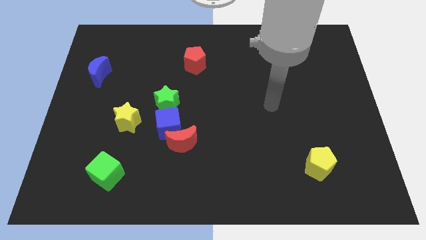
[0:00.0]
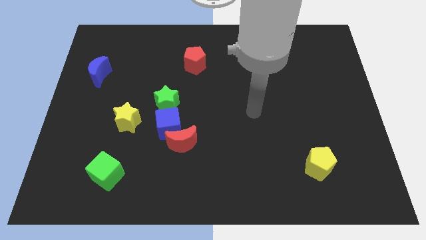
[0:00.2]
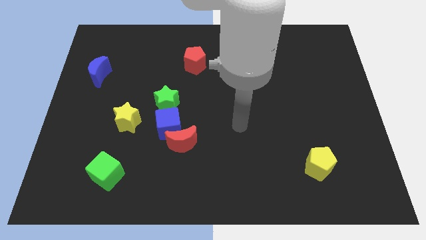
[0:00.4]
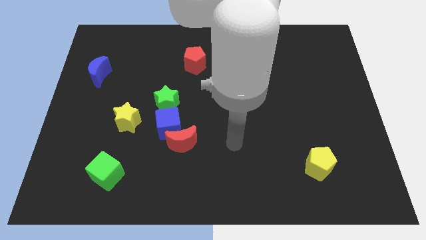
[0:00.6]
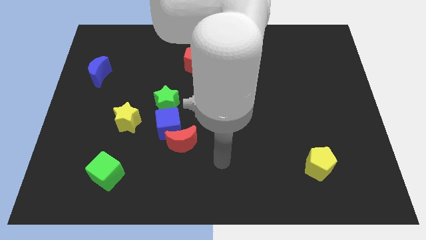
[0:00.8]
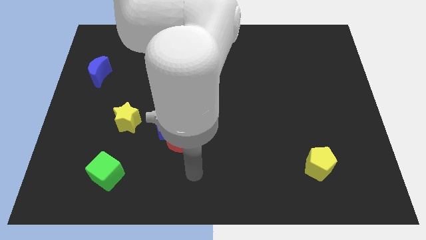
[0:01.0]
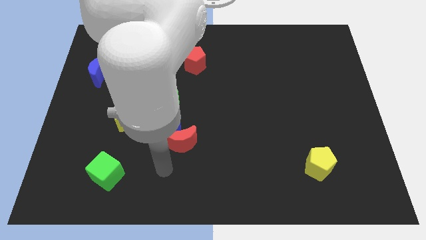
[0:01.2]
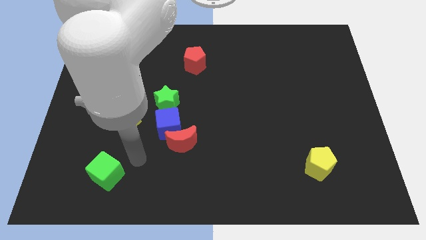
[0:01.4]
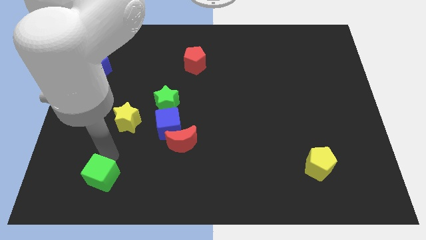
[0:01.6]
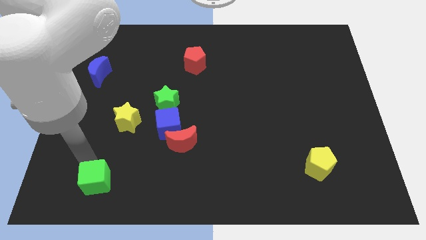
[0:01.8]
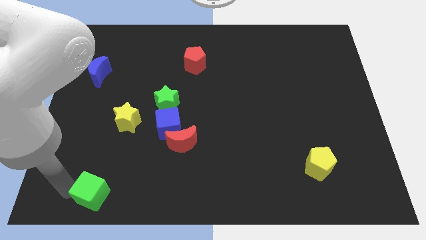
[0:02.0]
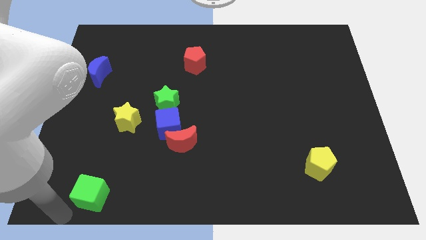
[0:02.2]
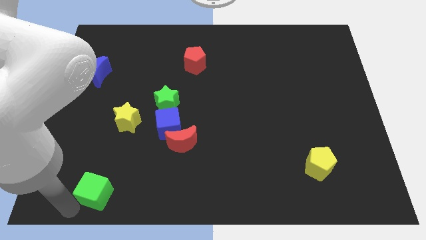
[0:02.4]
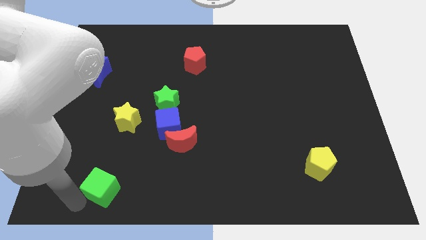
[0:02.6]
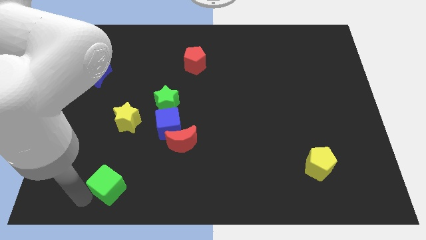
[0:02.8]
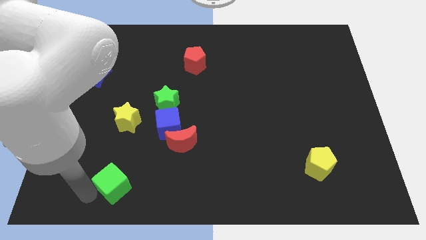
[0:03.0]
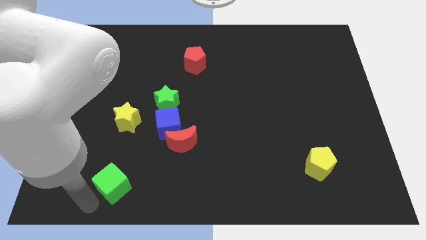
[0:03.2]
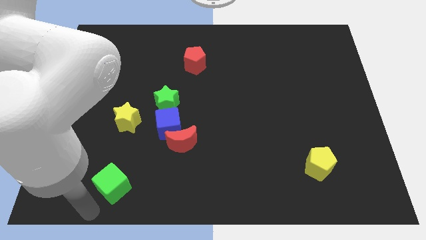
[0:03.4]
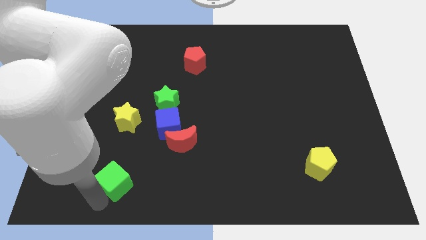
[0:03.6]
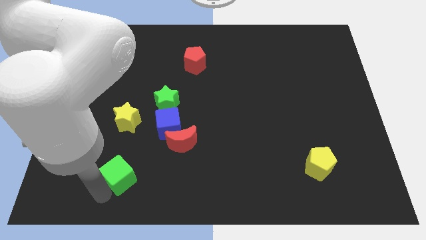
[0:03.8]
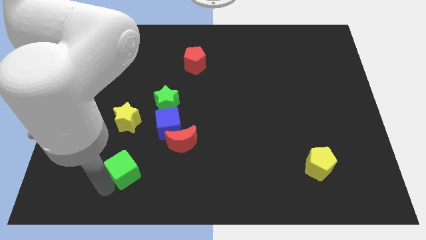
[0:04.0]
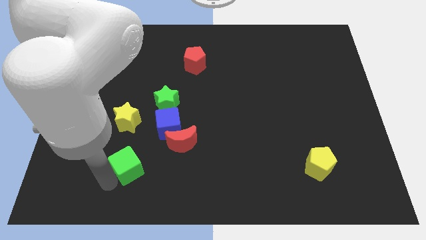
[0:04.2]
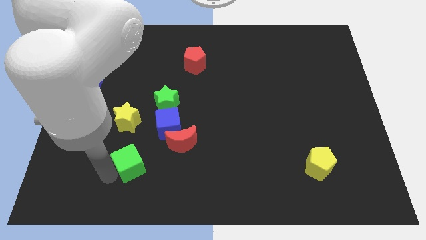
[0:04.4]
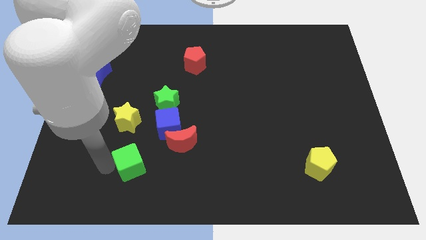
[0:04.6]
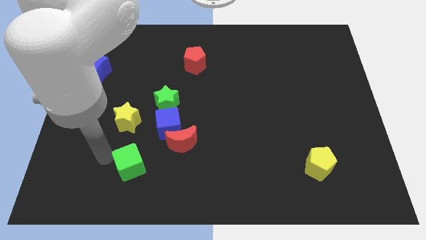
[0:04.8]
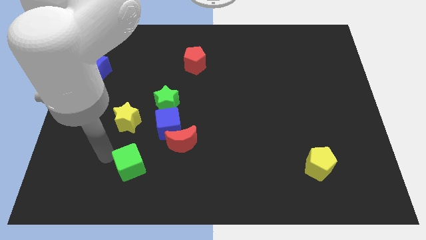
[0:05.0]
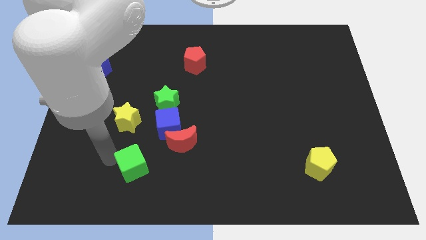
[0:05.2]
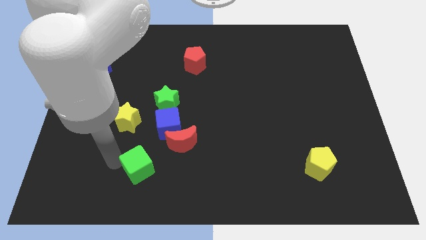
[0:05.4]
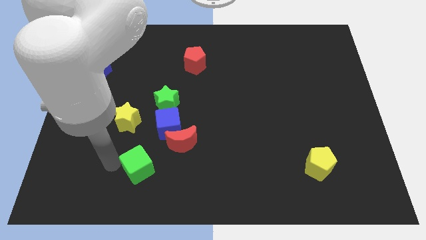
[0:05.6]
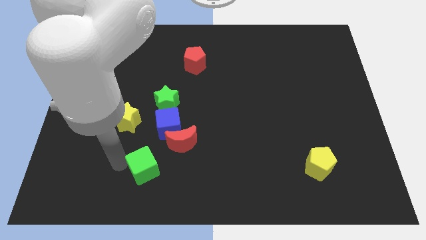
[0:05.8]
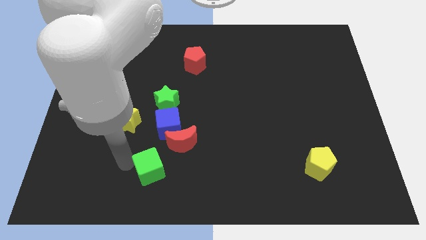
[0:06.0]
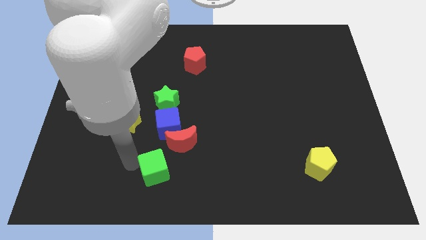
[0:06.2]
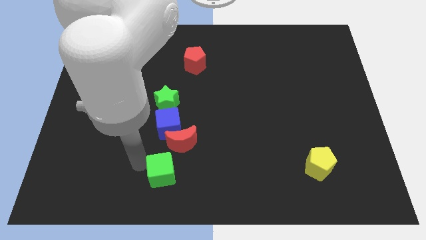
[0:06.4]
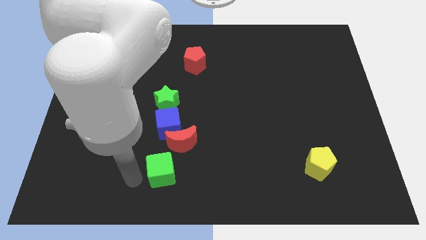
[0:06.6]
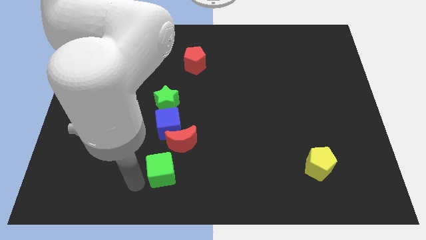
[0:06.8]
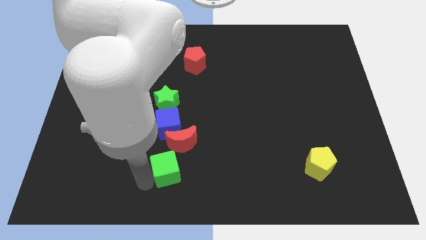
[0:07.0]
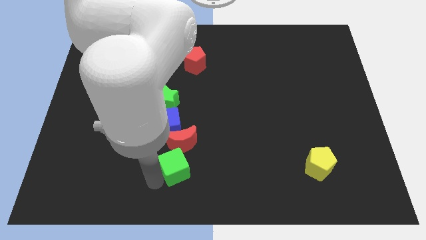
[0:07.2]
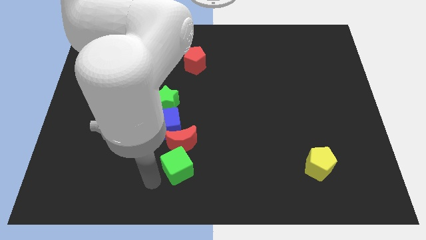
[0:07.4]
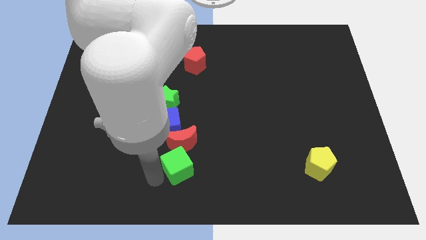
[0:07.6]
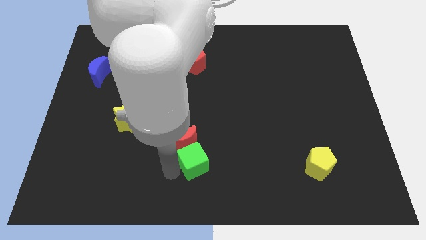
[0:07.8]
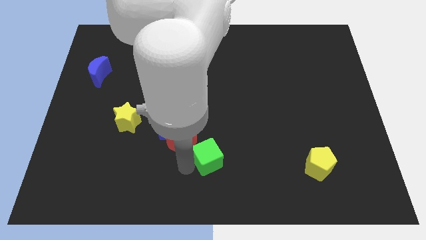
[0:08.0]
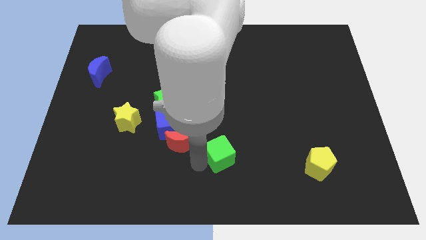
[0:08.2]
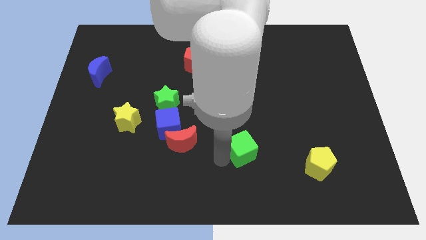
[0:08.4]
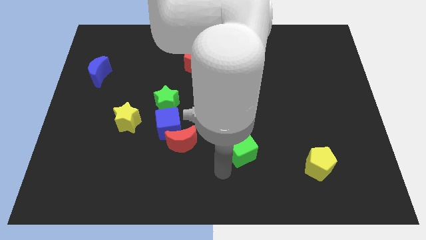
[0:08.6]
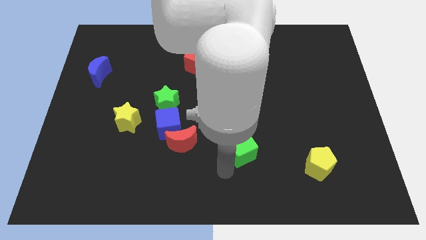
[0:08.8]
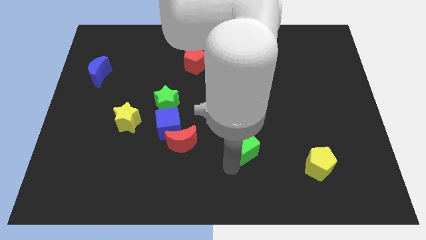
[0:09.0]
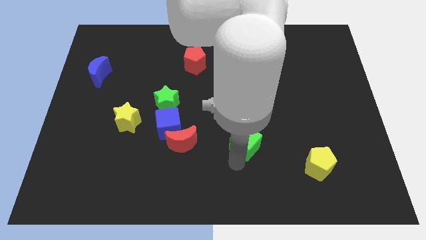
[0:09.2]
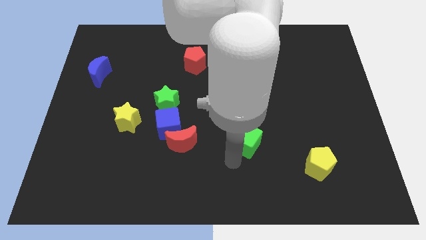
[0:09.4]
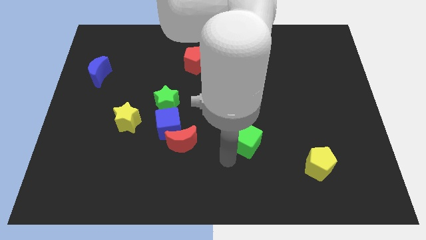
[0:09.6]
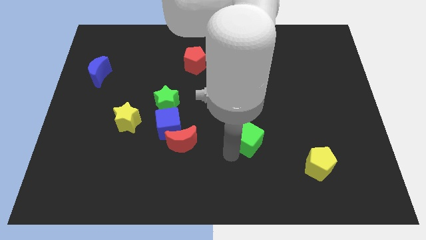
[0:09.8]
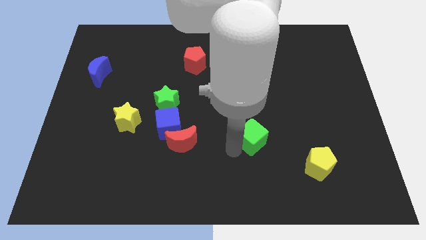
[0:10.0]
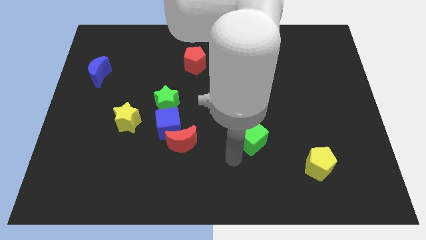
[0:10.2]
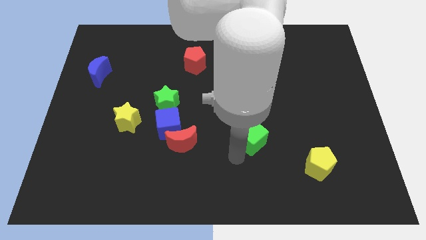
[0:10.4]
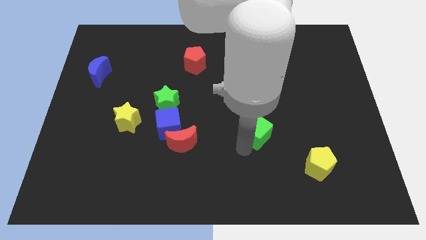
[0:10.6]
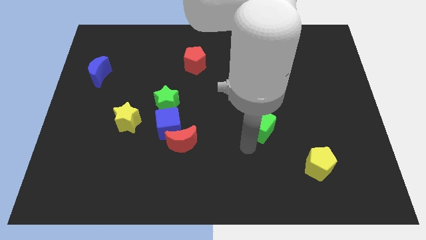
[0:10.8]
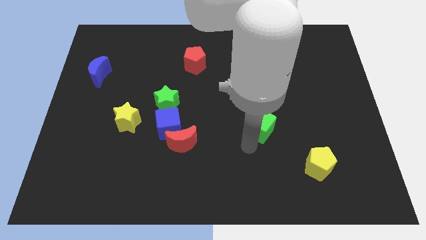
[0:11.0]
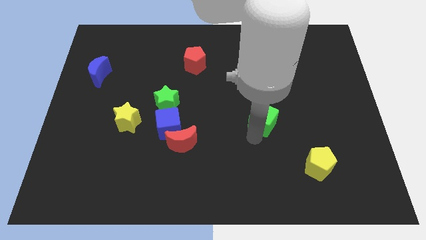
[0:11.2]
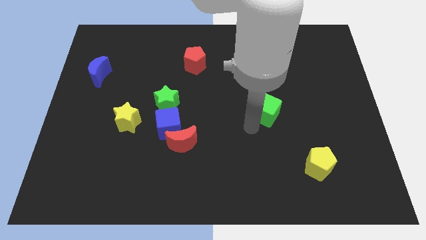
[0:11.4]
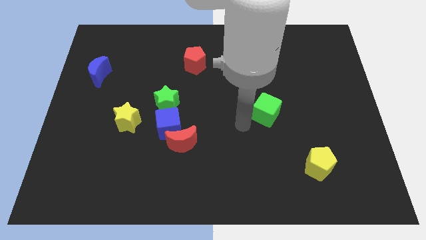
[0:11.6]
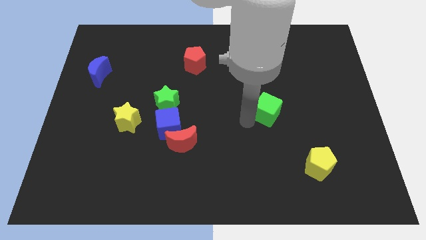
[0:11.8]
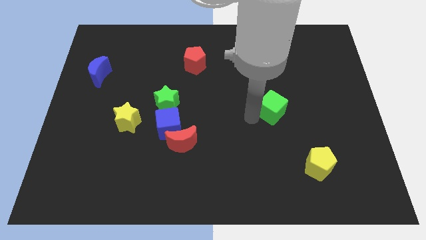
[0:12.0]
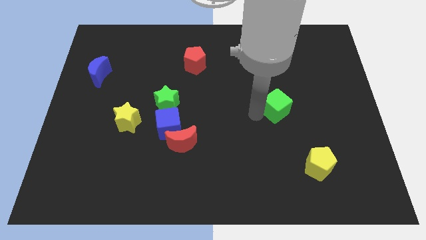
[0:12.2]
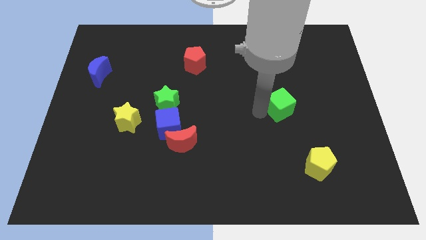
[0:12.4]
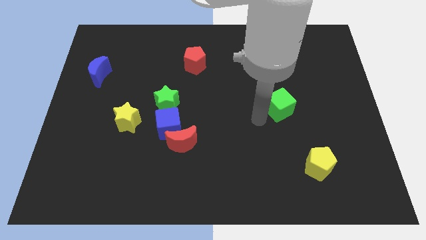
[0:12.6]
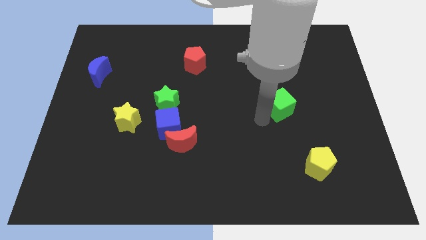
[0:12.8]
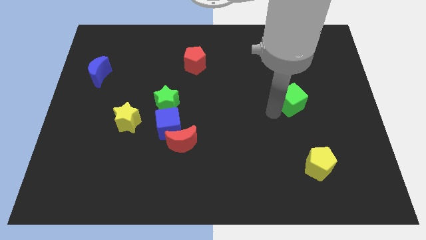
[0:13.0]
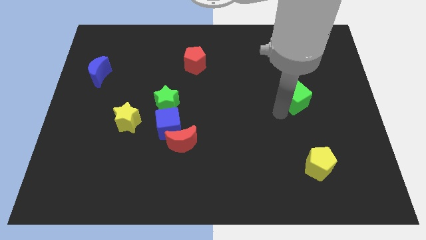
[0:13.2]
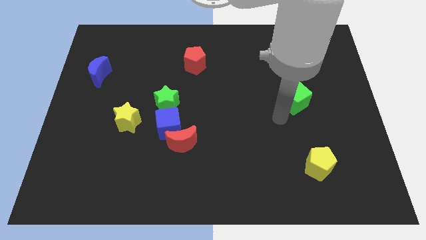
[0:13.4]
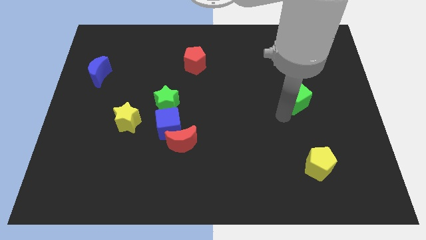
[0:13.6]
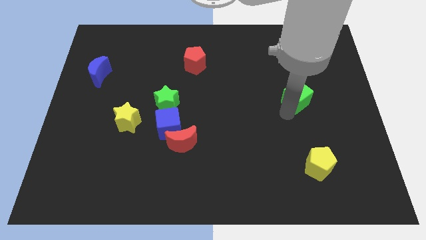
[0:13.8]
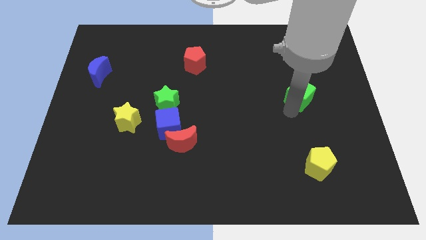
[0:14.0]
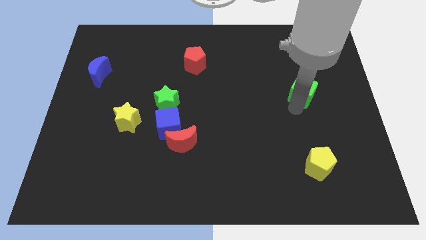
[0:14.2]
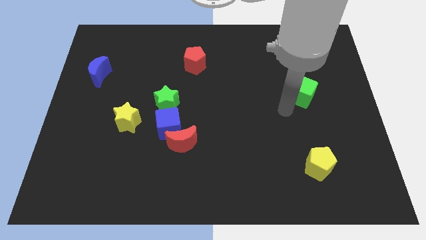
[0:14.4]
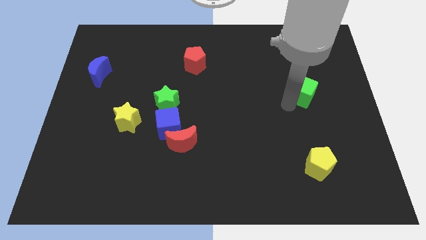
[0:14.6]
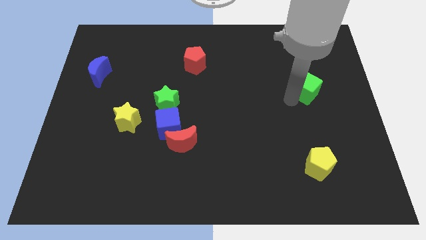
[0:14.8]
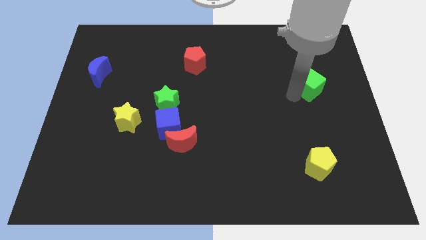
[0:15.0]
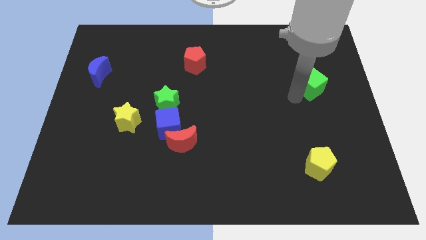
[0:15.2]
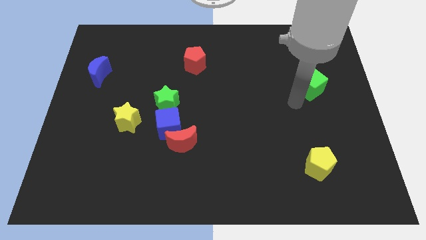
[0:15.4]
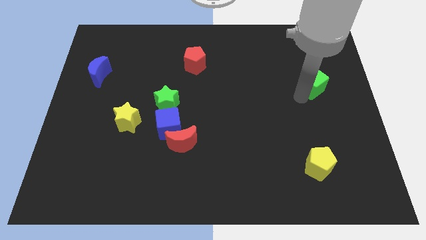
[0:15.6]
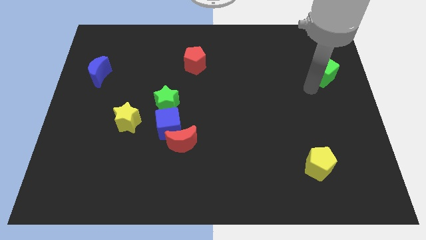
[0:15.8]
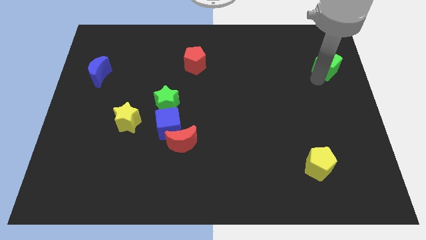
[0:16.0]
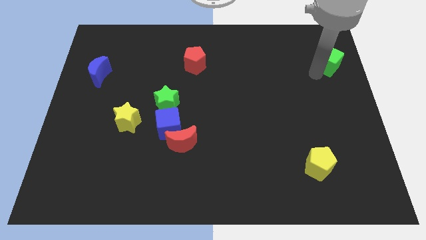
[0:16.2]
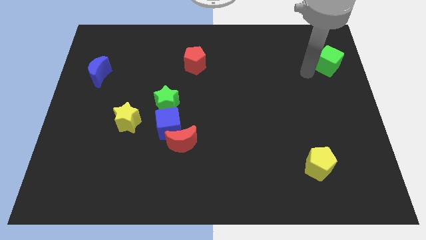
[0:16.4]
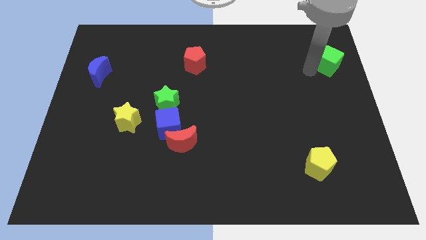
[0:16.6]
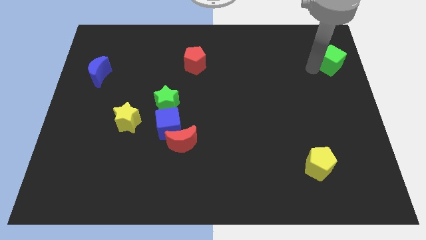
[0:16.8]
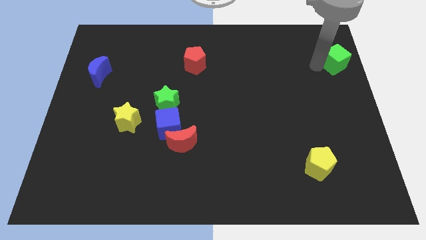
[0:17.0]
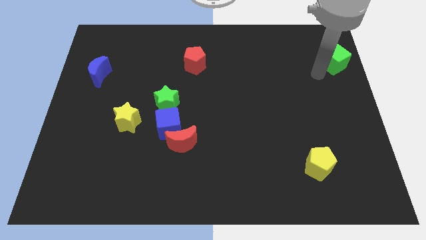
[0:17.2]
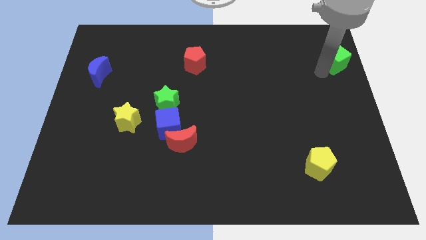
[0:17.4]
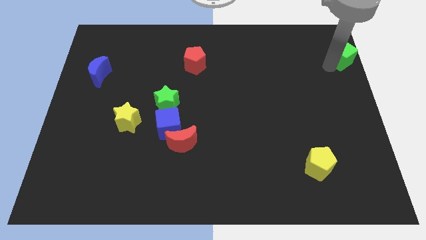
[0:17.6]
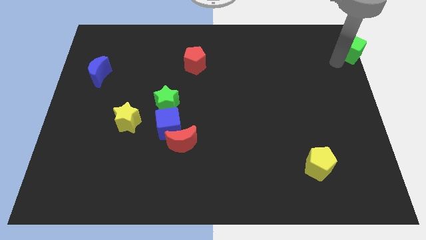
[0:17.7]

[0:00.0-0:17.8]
move the green cube to the top right
